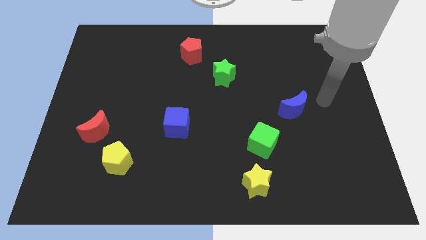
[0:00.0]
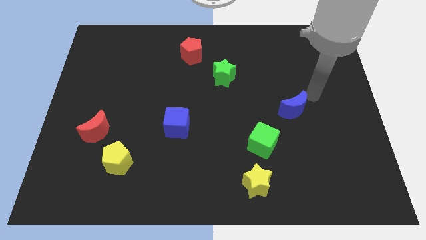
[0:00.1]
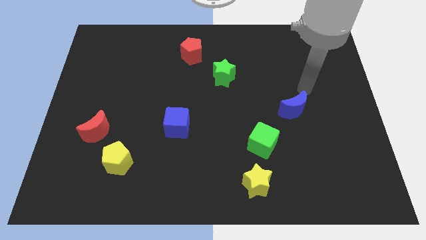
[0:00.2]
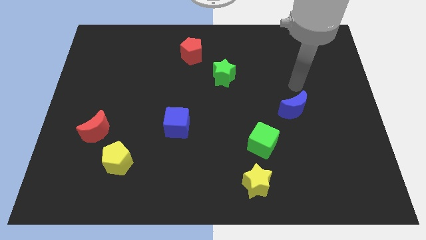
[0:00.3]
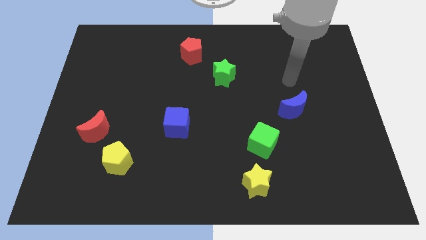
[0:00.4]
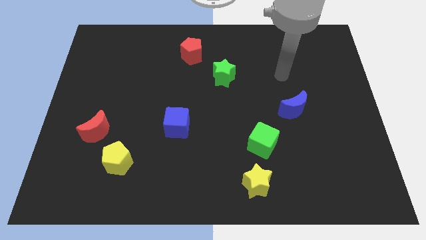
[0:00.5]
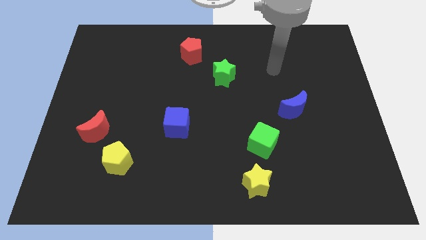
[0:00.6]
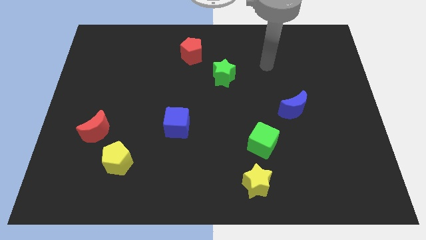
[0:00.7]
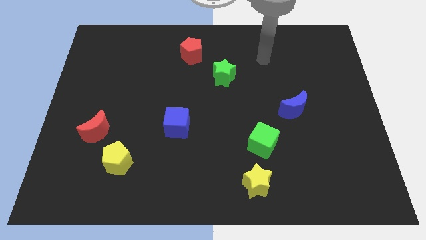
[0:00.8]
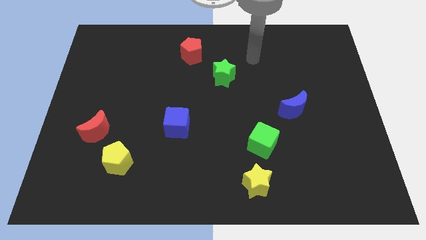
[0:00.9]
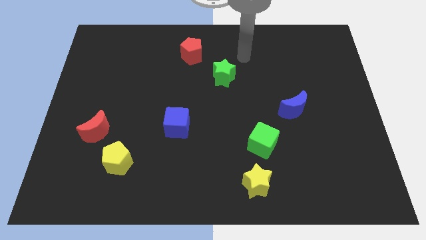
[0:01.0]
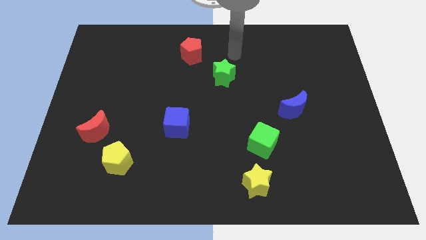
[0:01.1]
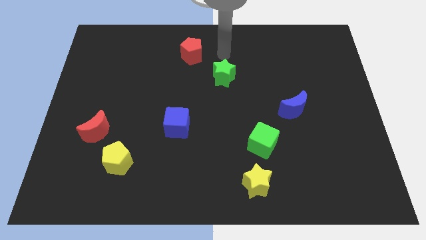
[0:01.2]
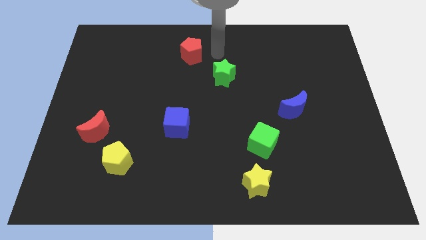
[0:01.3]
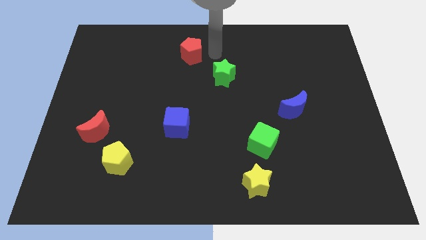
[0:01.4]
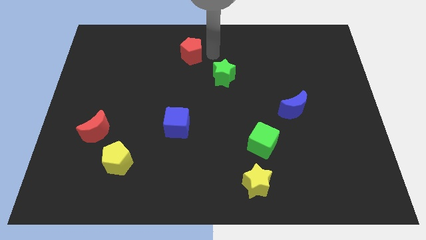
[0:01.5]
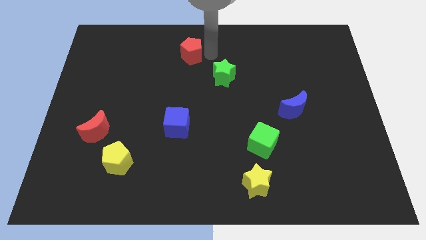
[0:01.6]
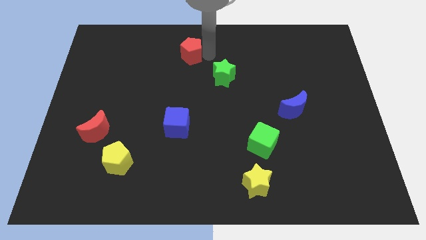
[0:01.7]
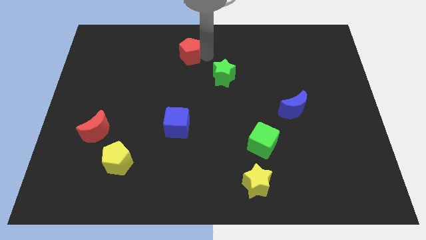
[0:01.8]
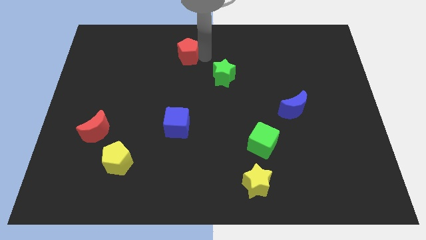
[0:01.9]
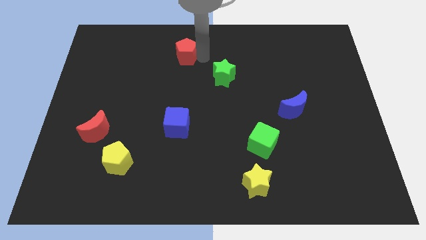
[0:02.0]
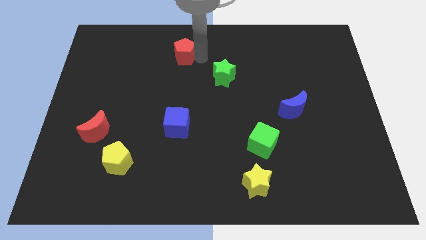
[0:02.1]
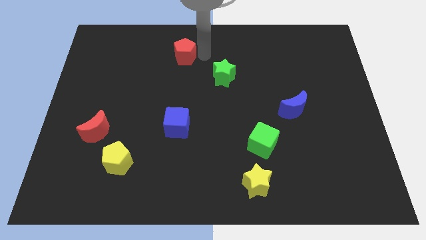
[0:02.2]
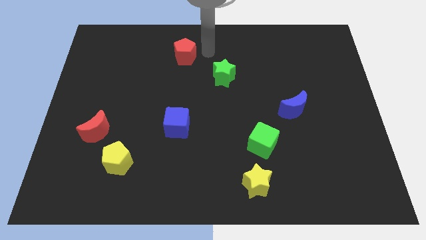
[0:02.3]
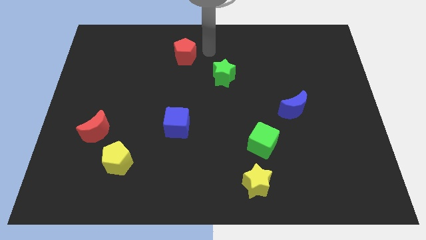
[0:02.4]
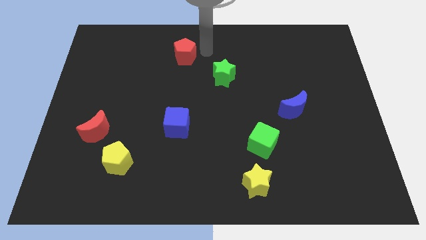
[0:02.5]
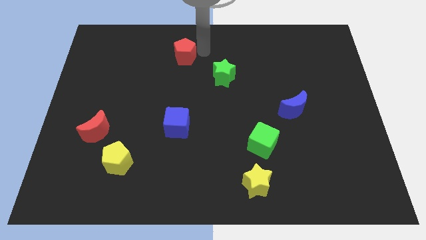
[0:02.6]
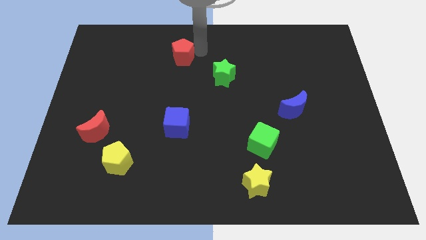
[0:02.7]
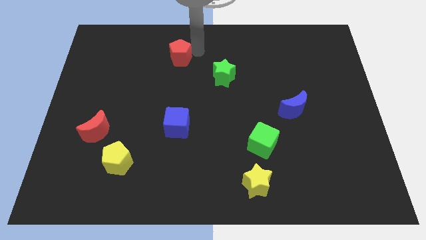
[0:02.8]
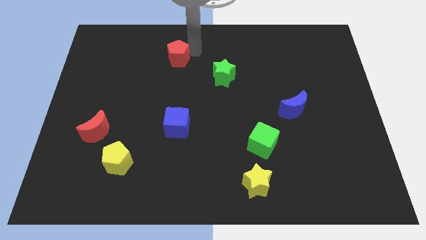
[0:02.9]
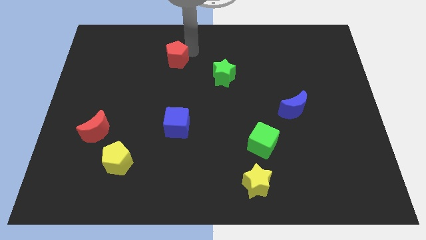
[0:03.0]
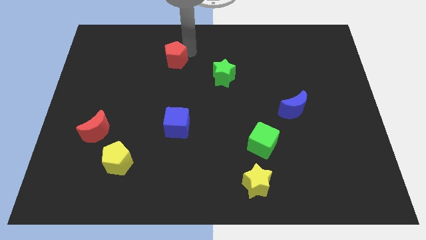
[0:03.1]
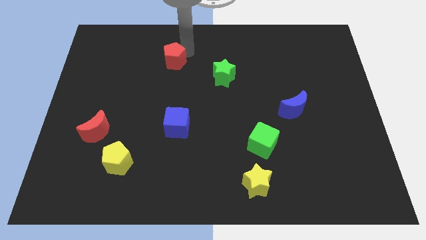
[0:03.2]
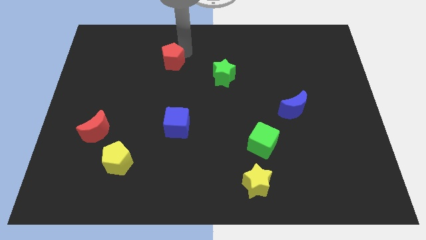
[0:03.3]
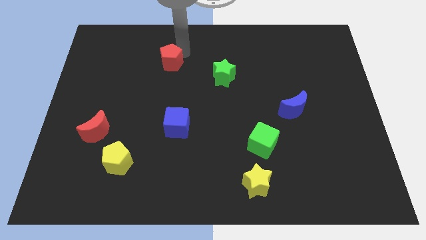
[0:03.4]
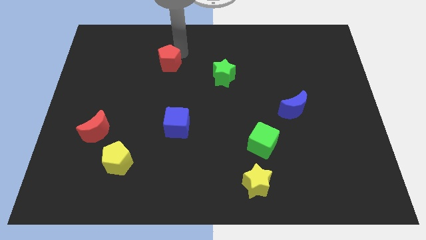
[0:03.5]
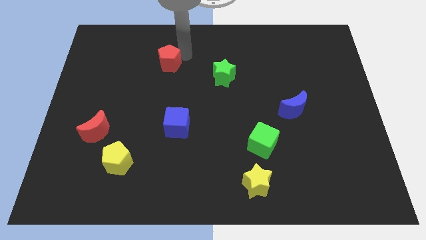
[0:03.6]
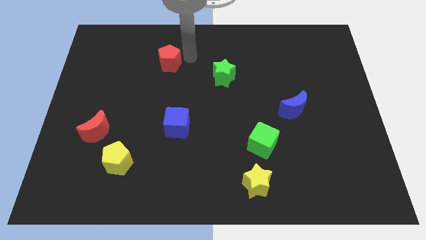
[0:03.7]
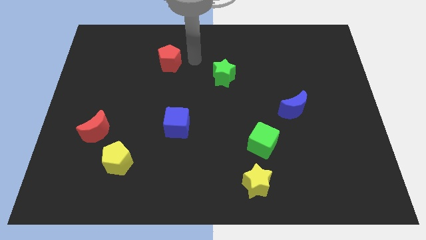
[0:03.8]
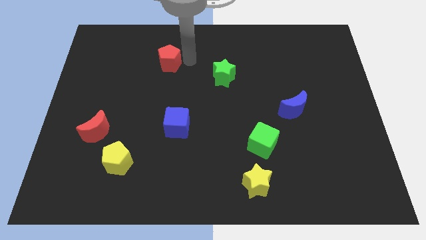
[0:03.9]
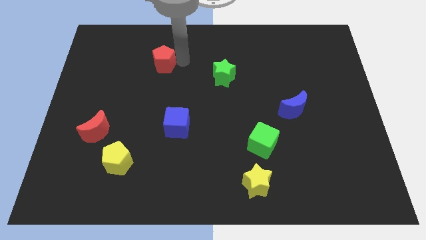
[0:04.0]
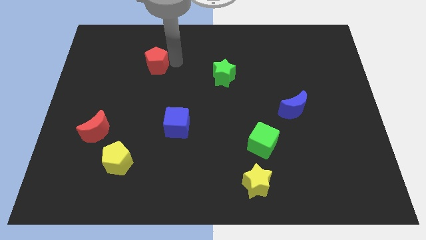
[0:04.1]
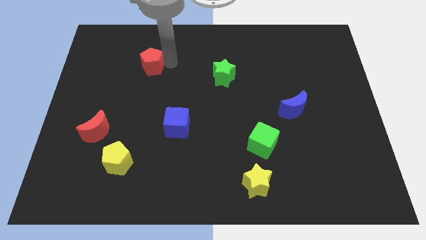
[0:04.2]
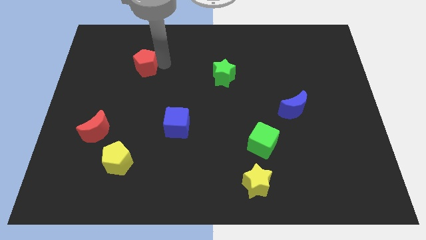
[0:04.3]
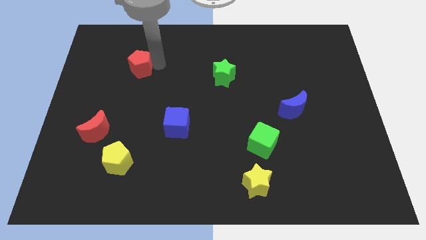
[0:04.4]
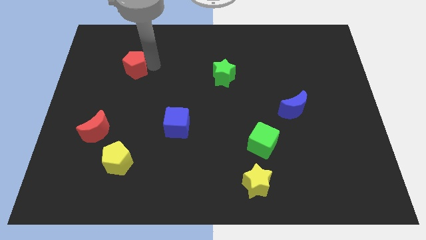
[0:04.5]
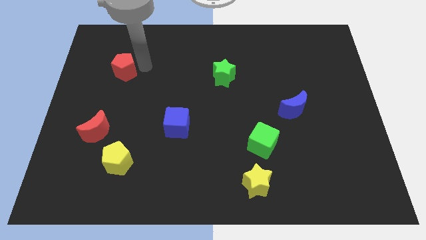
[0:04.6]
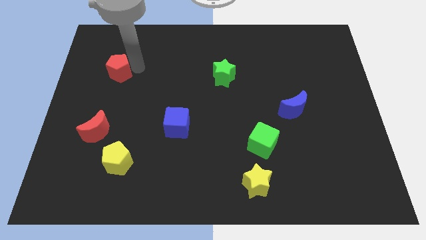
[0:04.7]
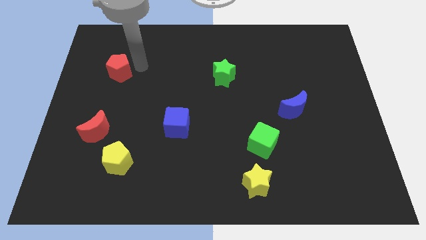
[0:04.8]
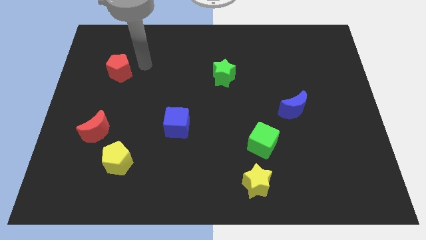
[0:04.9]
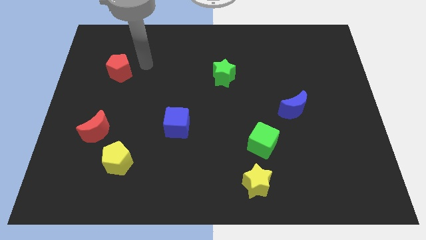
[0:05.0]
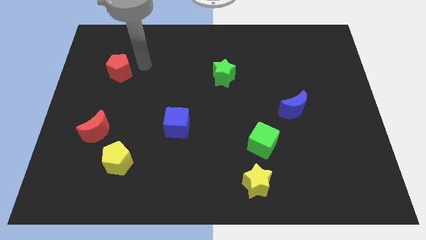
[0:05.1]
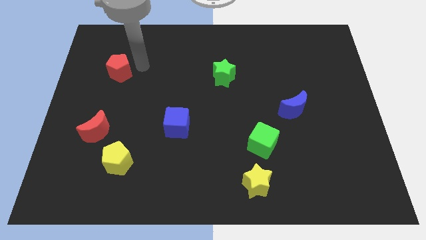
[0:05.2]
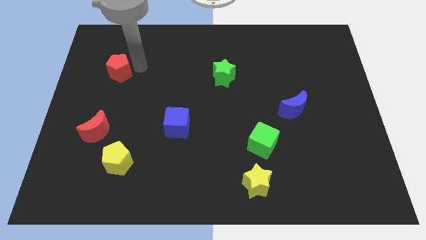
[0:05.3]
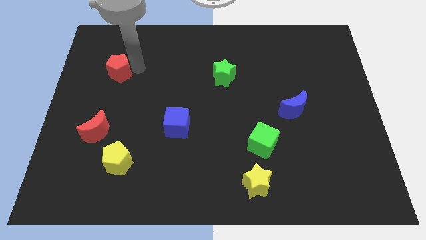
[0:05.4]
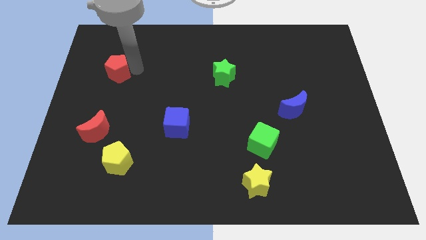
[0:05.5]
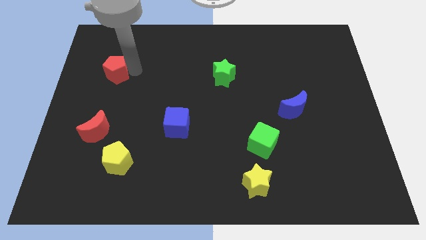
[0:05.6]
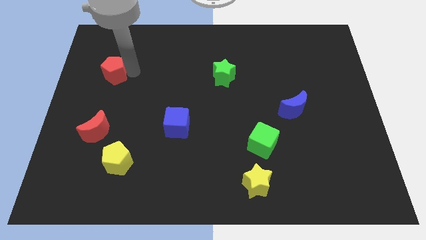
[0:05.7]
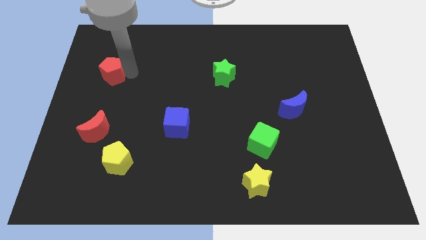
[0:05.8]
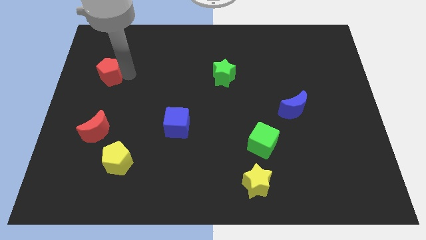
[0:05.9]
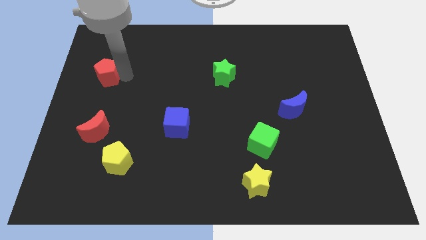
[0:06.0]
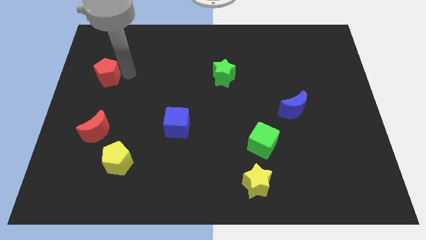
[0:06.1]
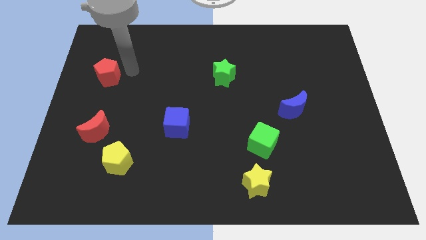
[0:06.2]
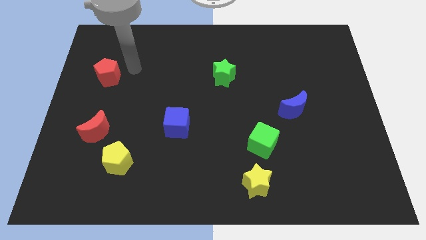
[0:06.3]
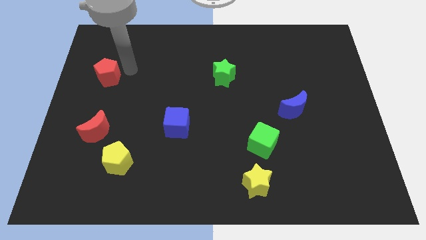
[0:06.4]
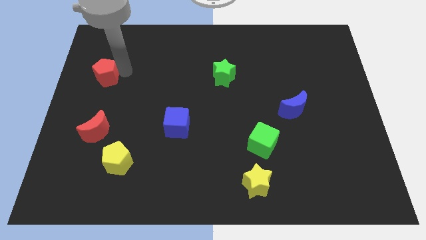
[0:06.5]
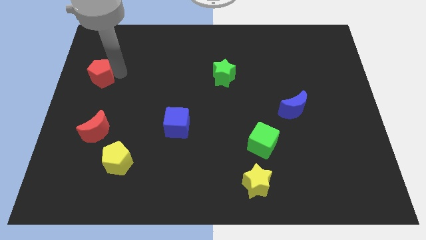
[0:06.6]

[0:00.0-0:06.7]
move the red pentagon to the left side
